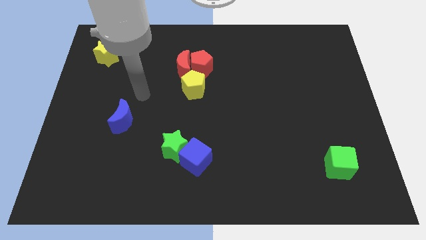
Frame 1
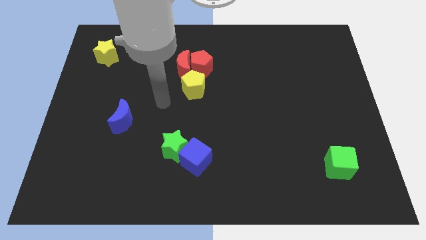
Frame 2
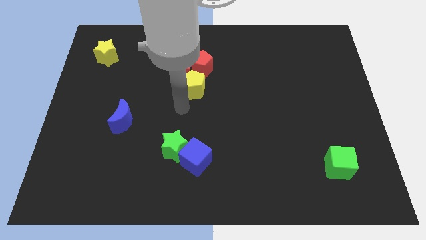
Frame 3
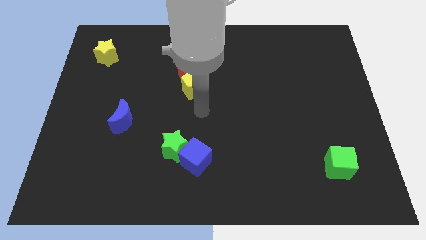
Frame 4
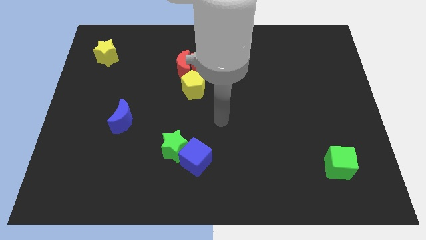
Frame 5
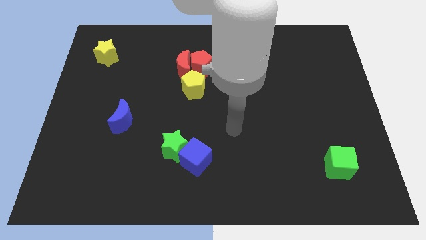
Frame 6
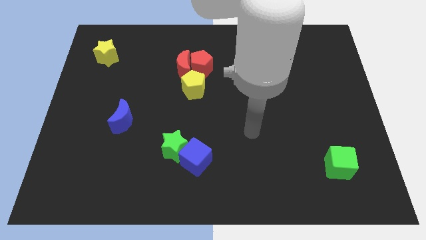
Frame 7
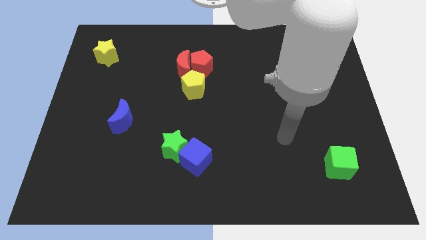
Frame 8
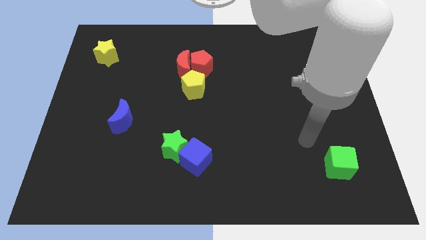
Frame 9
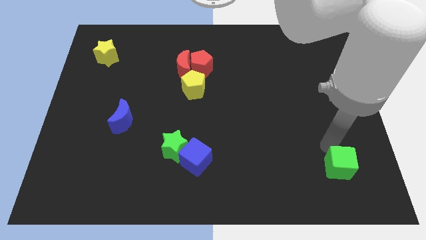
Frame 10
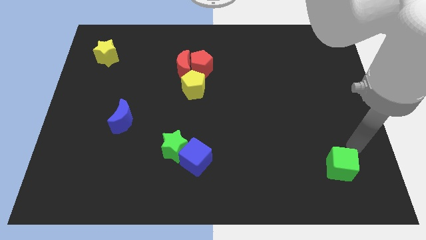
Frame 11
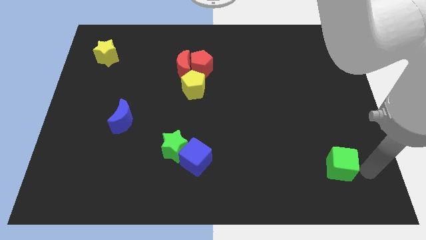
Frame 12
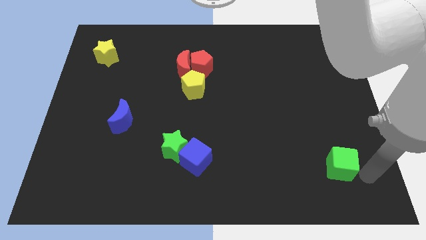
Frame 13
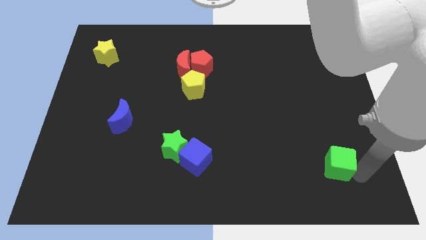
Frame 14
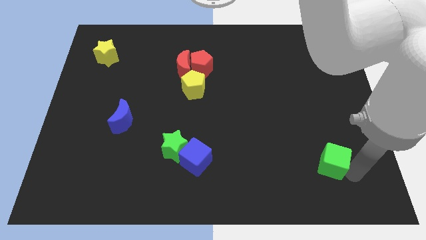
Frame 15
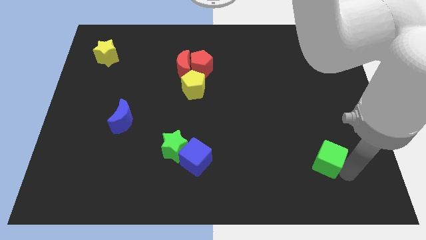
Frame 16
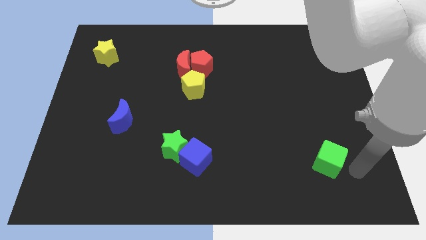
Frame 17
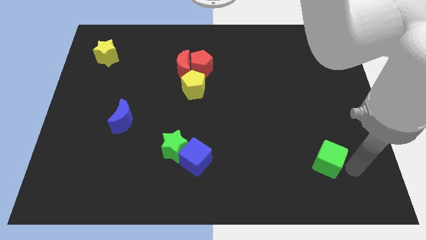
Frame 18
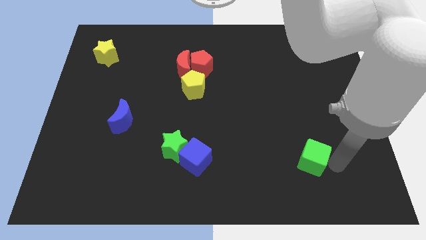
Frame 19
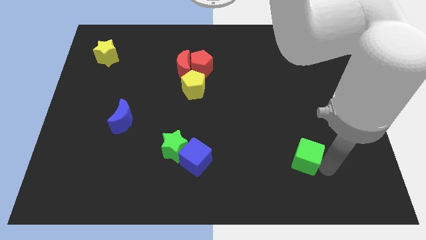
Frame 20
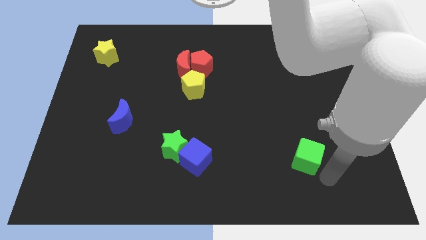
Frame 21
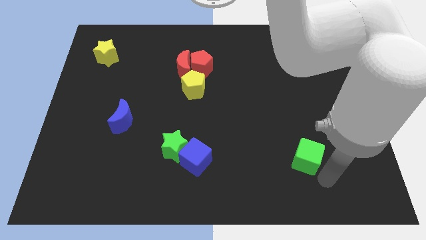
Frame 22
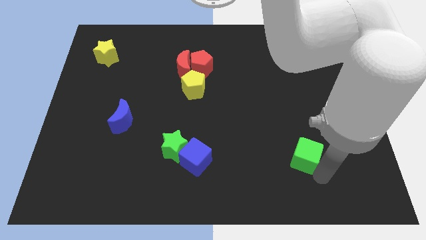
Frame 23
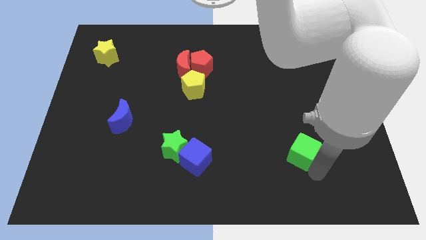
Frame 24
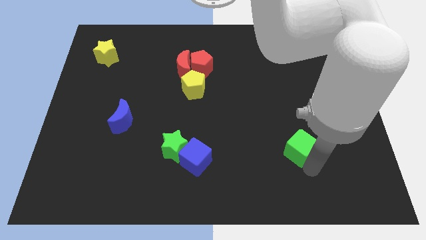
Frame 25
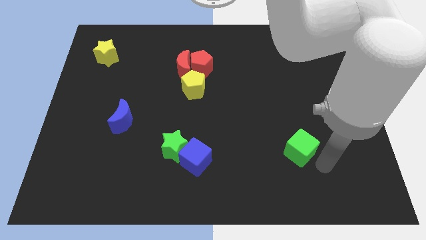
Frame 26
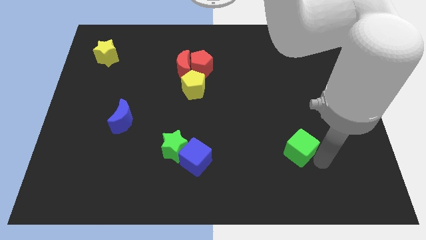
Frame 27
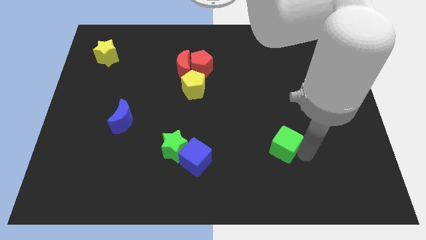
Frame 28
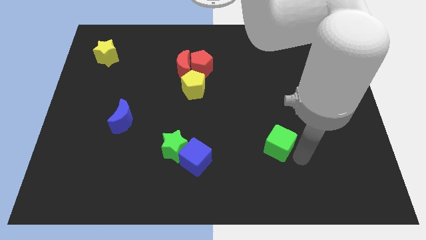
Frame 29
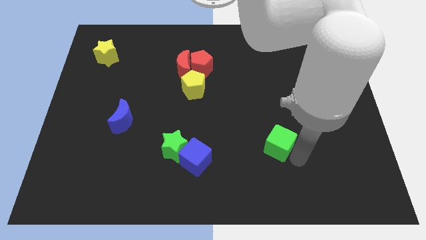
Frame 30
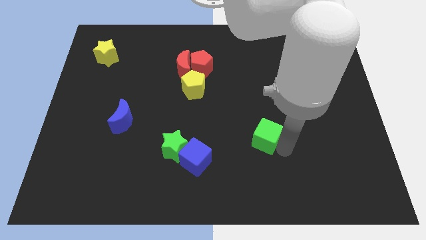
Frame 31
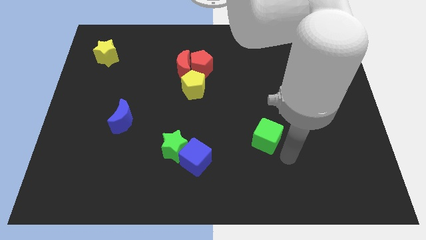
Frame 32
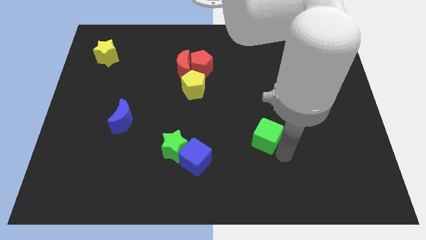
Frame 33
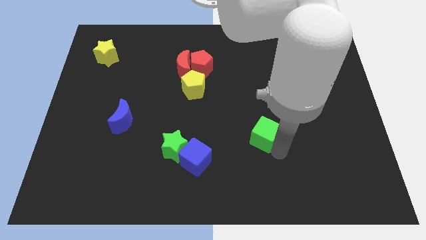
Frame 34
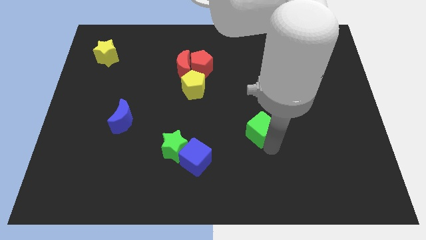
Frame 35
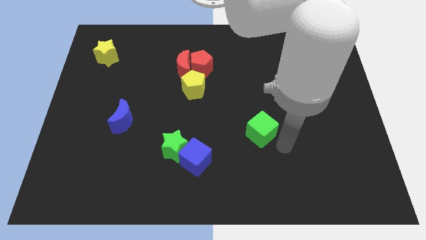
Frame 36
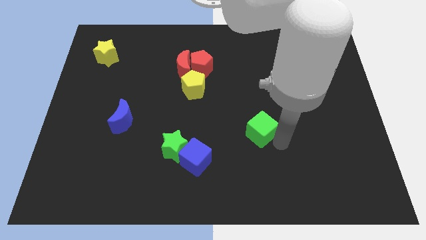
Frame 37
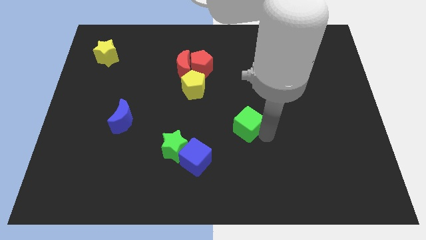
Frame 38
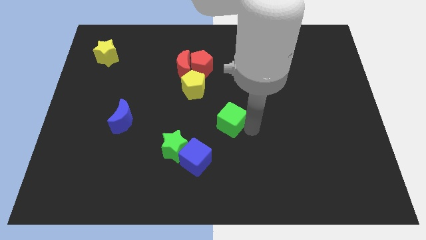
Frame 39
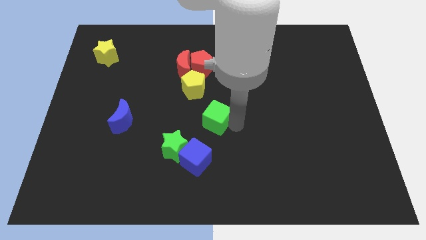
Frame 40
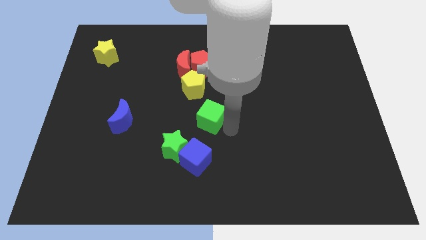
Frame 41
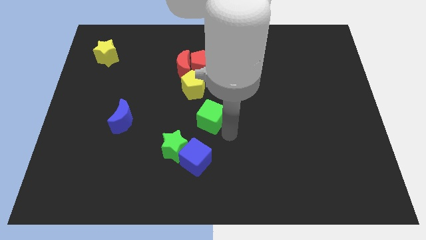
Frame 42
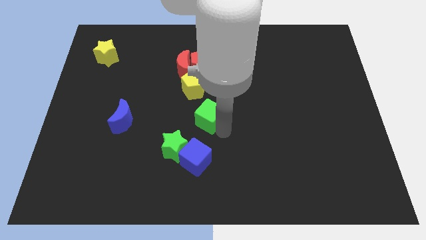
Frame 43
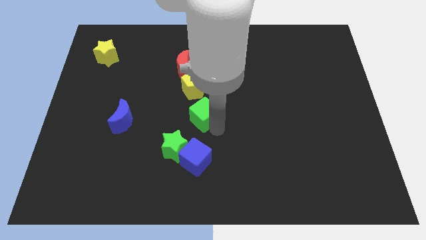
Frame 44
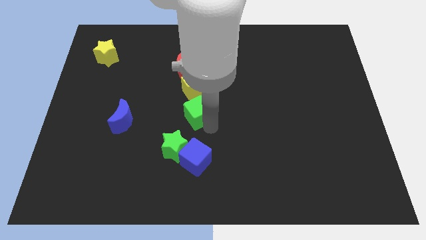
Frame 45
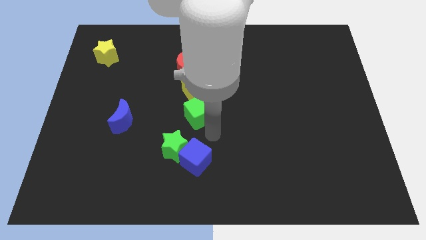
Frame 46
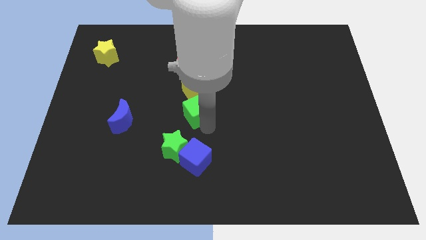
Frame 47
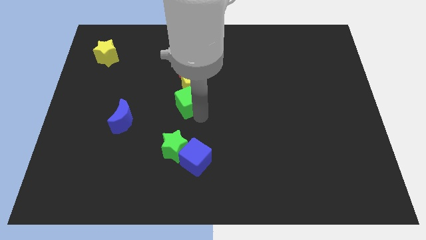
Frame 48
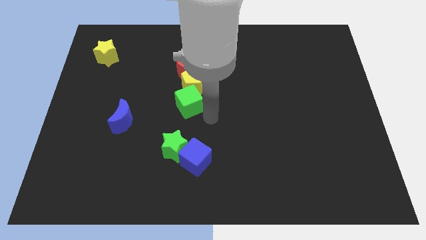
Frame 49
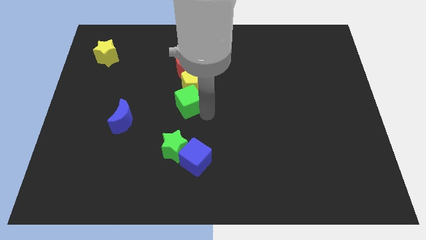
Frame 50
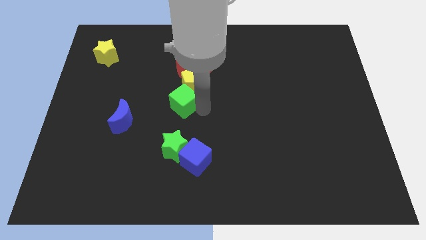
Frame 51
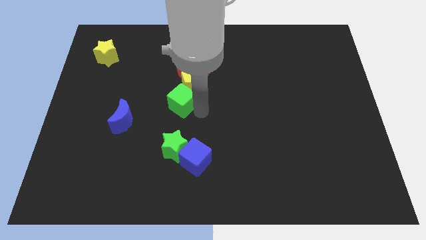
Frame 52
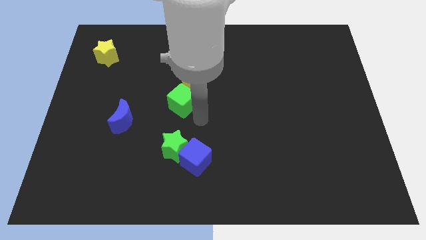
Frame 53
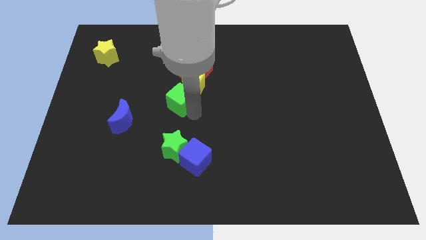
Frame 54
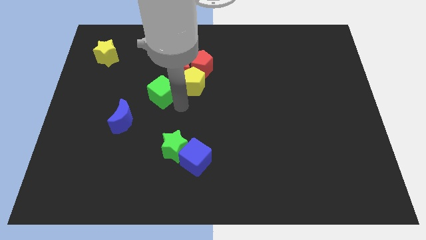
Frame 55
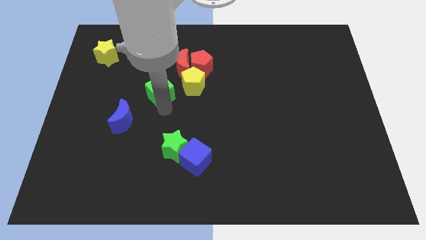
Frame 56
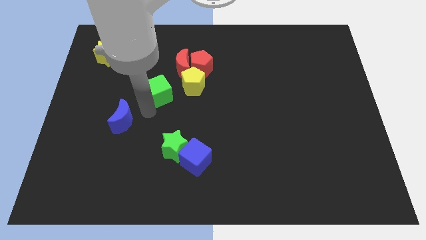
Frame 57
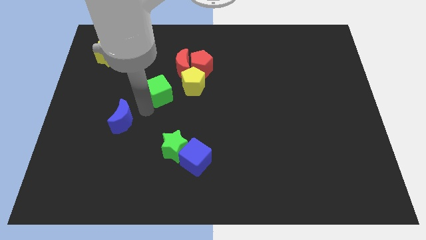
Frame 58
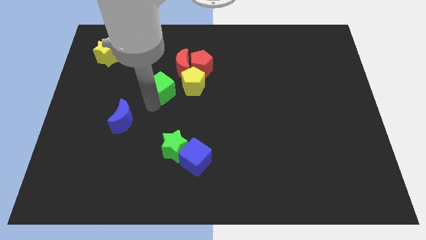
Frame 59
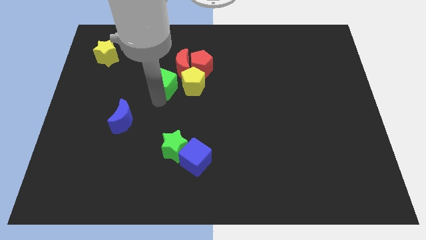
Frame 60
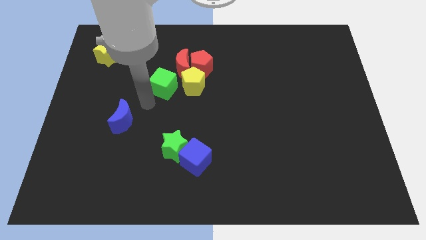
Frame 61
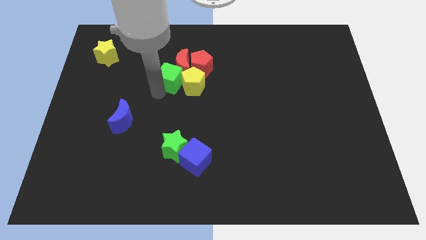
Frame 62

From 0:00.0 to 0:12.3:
put the green cube next to the red moon

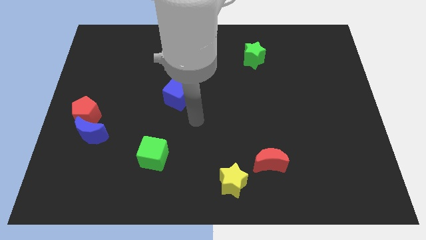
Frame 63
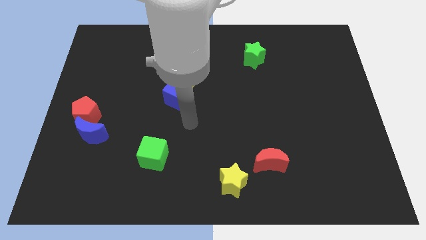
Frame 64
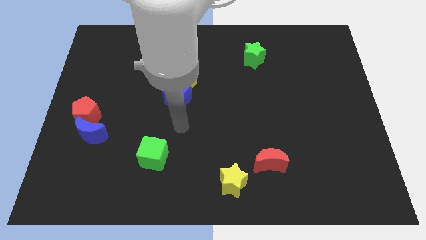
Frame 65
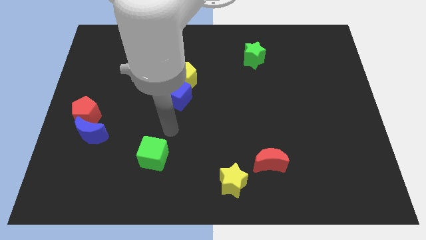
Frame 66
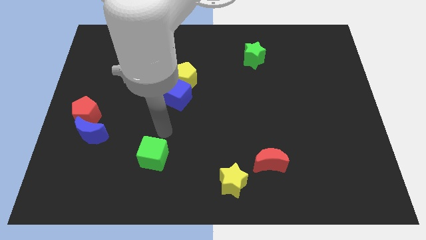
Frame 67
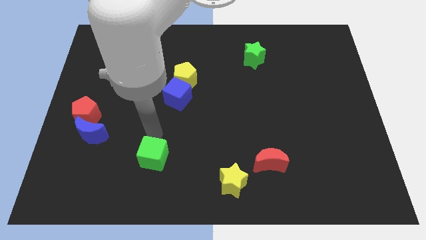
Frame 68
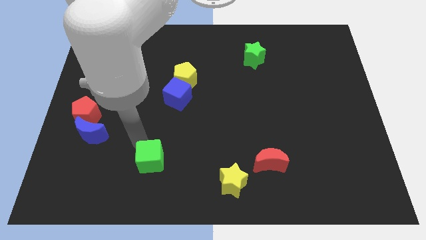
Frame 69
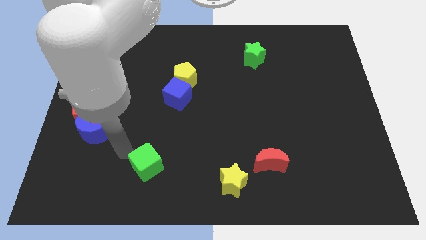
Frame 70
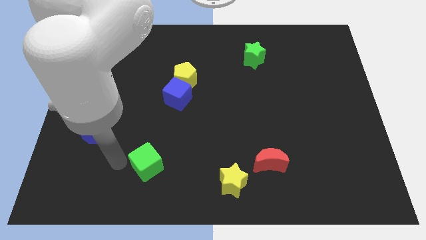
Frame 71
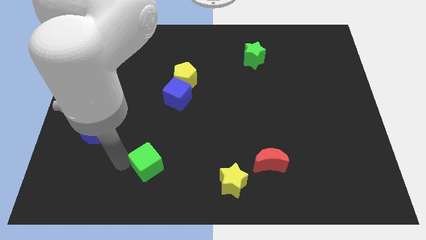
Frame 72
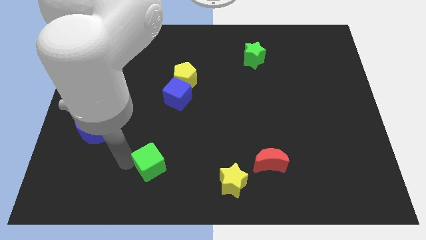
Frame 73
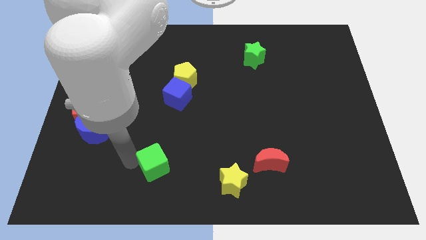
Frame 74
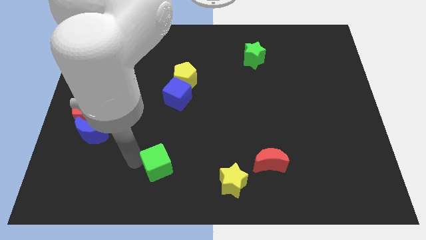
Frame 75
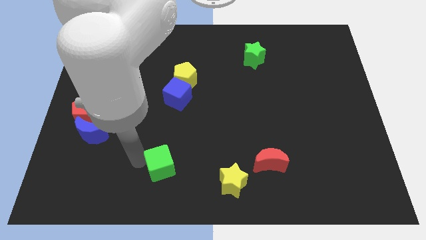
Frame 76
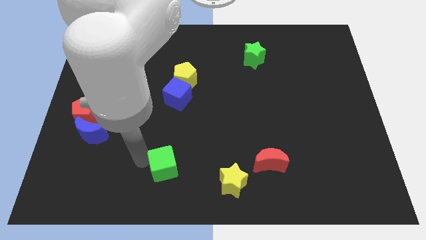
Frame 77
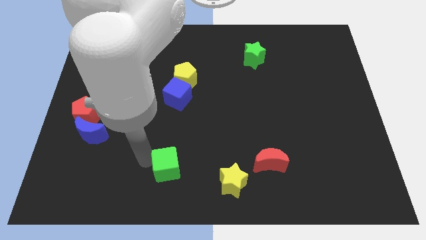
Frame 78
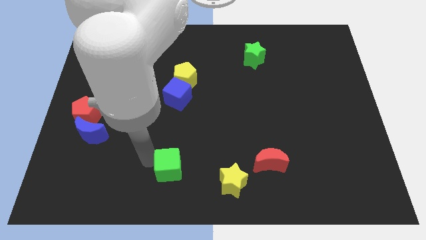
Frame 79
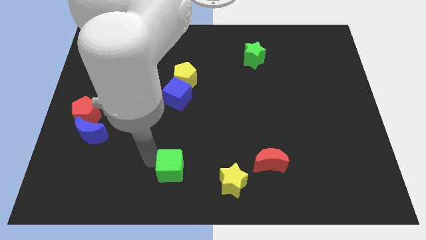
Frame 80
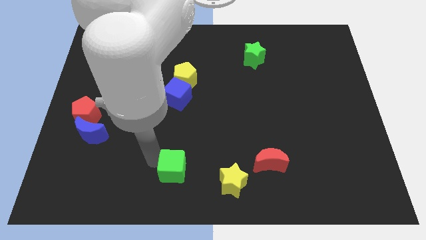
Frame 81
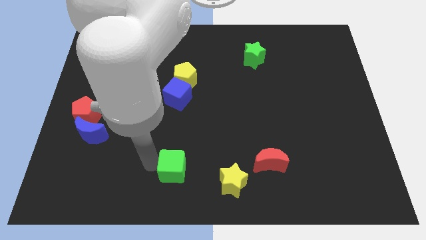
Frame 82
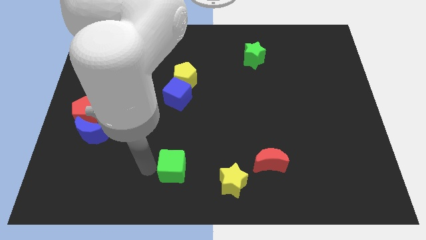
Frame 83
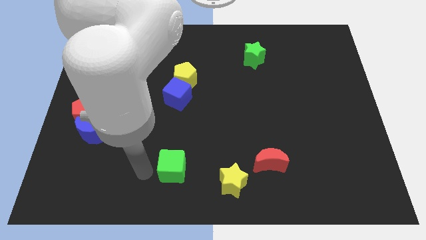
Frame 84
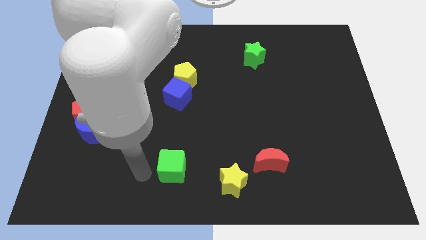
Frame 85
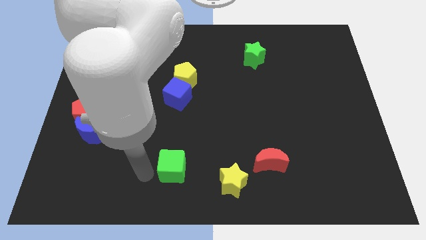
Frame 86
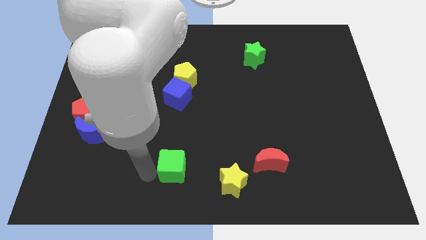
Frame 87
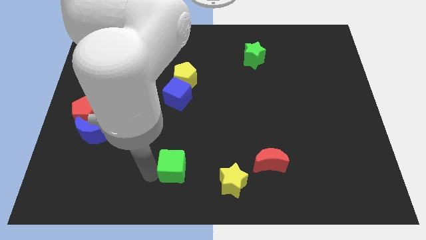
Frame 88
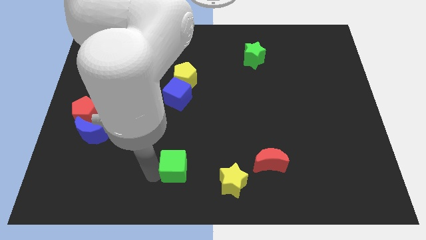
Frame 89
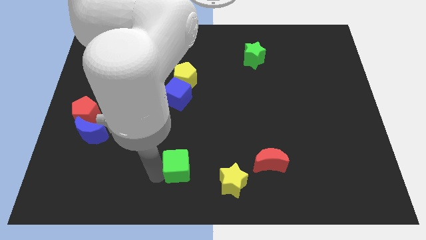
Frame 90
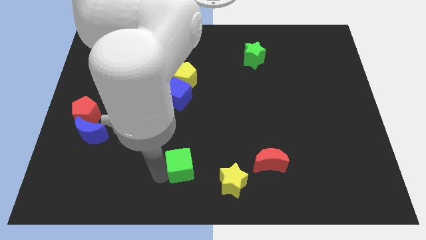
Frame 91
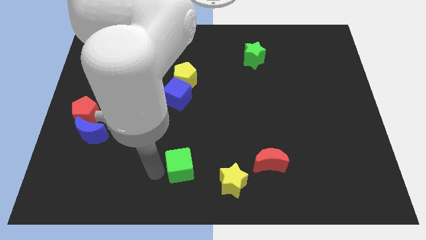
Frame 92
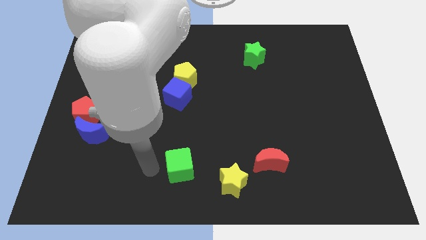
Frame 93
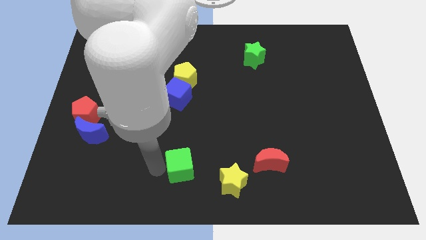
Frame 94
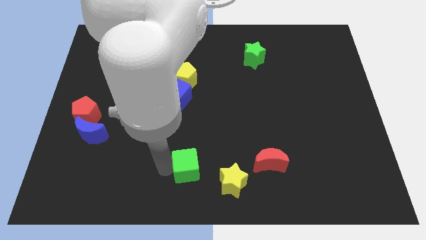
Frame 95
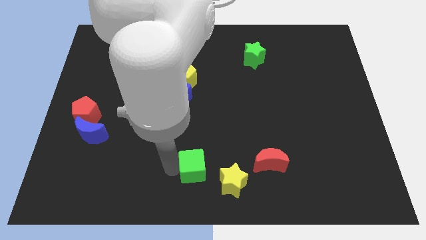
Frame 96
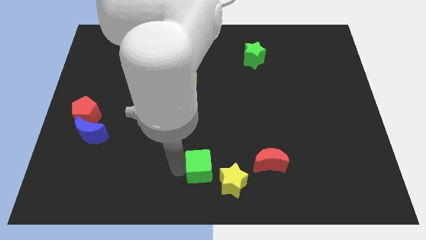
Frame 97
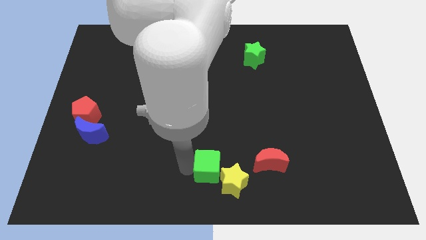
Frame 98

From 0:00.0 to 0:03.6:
slide the green cube close to the yellow star
